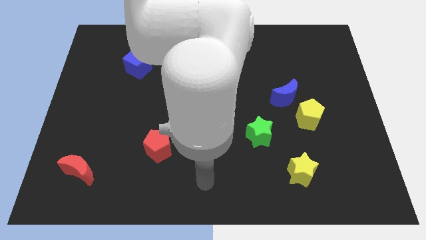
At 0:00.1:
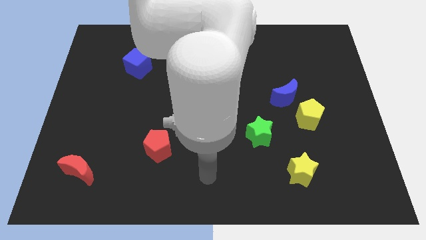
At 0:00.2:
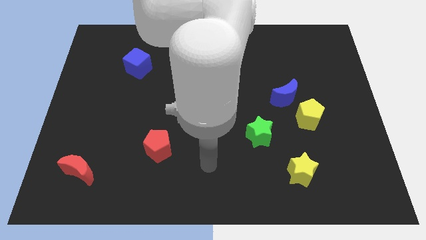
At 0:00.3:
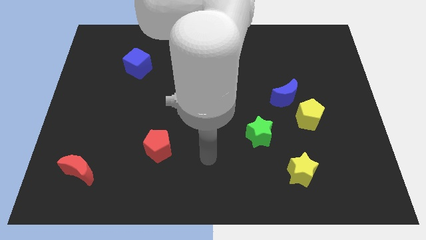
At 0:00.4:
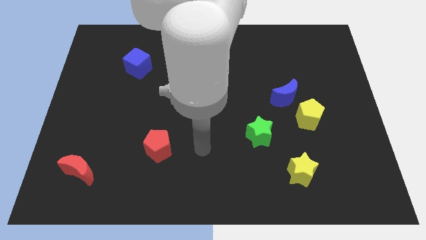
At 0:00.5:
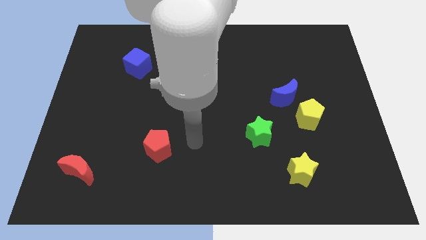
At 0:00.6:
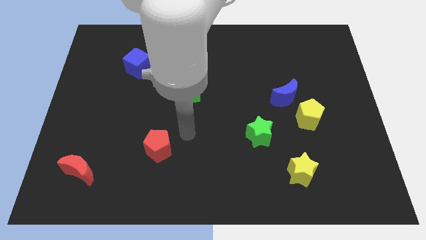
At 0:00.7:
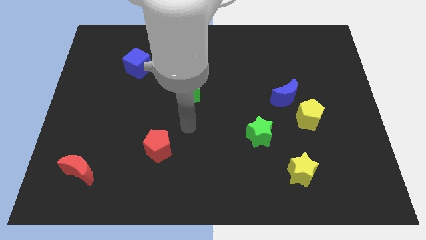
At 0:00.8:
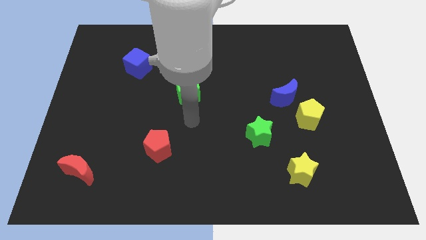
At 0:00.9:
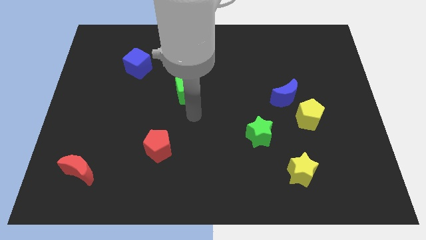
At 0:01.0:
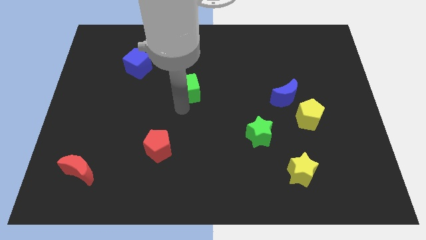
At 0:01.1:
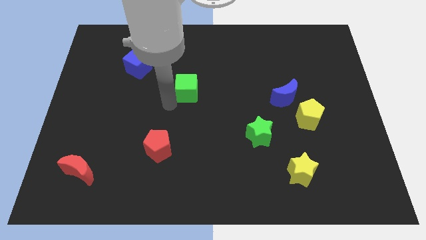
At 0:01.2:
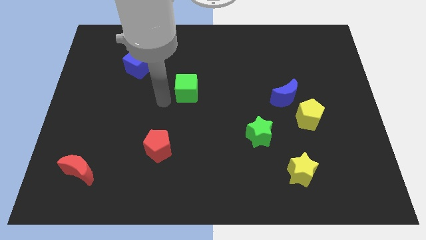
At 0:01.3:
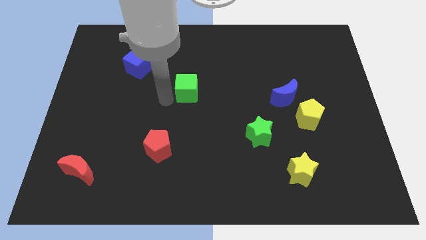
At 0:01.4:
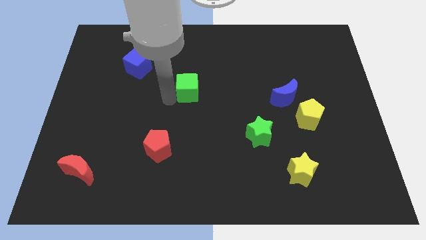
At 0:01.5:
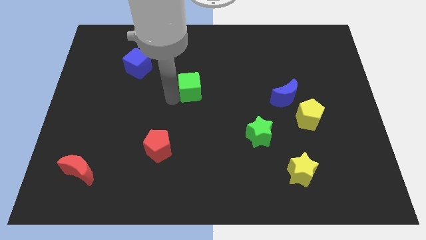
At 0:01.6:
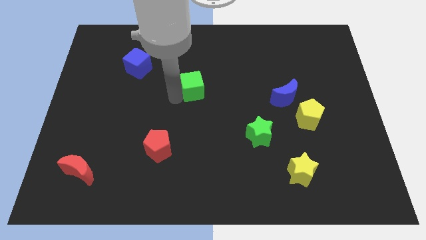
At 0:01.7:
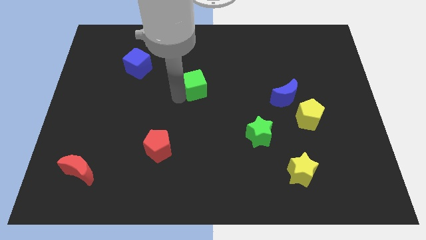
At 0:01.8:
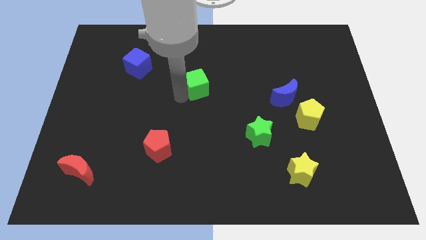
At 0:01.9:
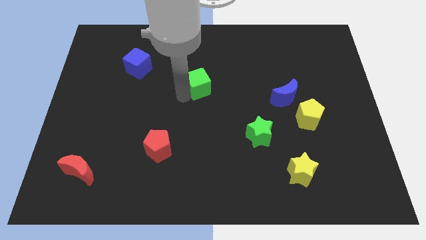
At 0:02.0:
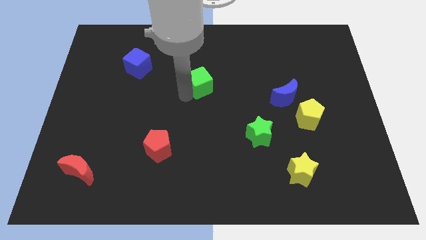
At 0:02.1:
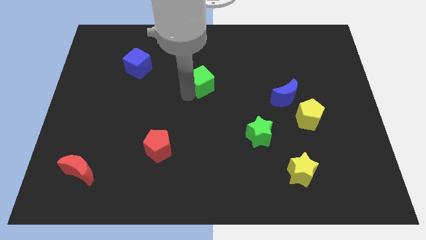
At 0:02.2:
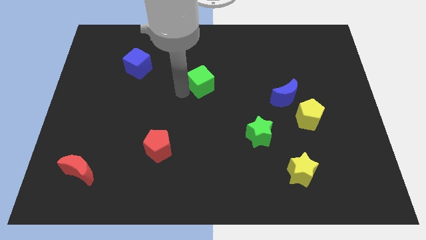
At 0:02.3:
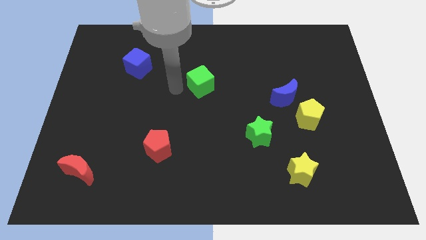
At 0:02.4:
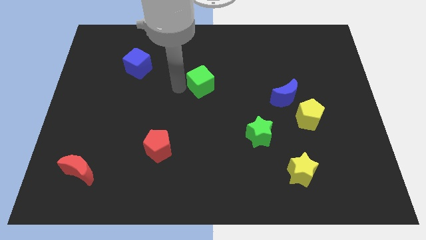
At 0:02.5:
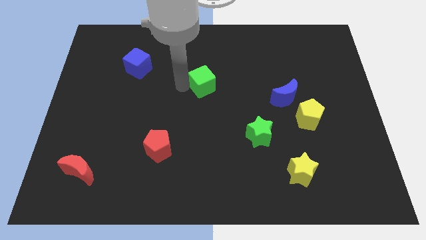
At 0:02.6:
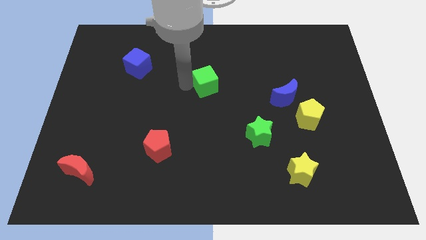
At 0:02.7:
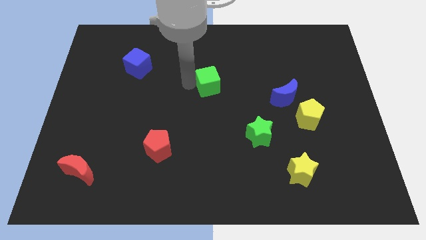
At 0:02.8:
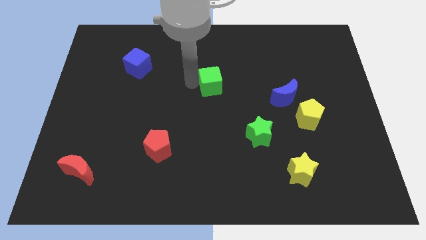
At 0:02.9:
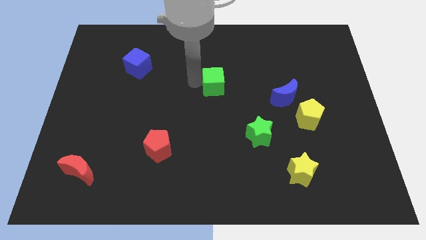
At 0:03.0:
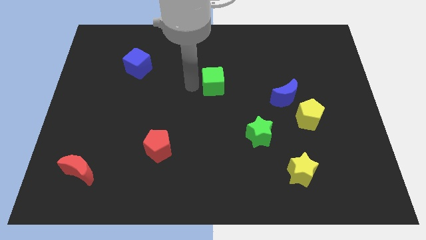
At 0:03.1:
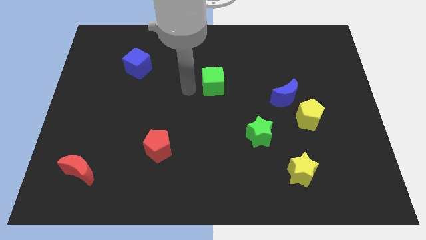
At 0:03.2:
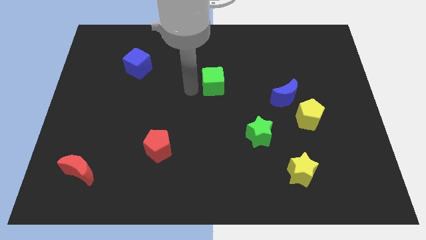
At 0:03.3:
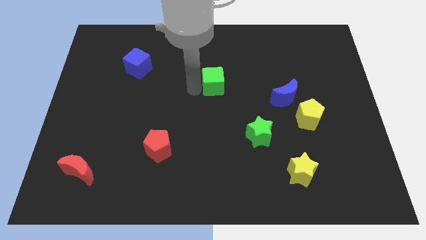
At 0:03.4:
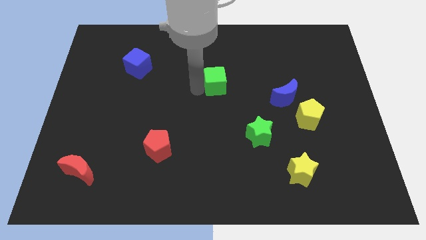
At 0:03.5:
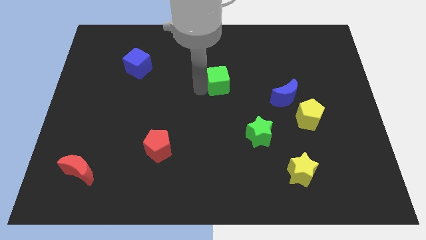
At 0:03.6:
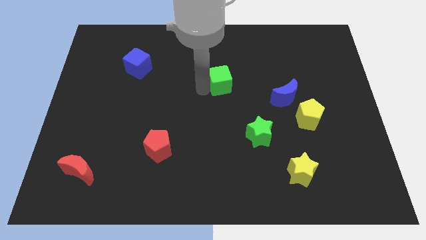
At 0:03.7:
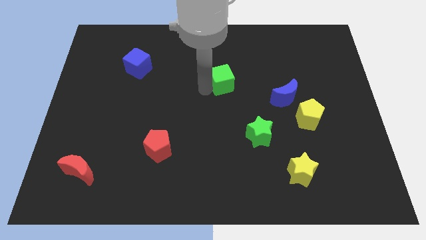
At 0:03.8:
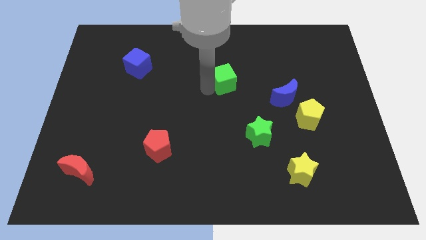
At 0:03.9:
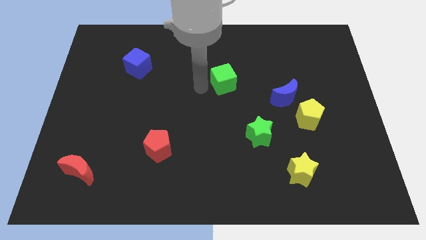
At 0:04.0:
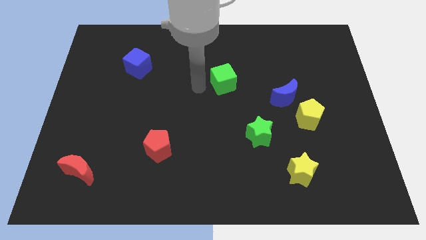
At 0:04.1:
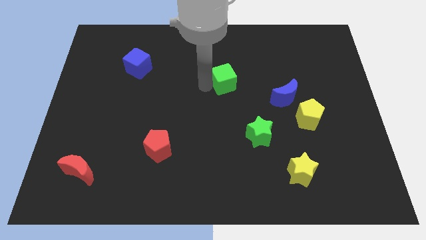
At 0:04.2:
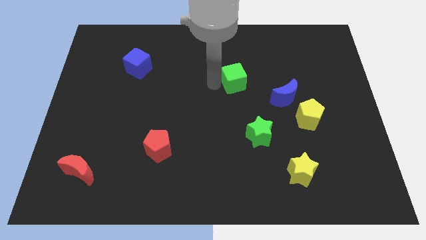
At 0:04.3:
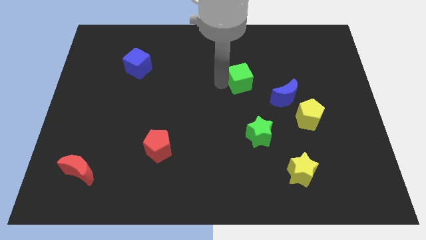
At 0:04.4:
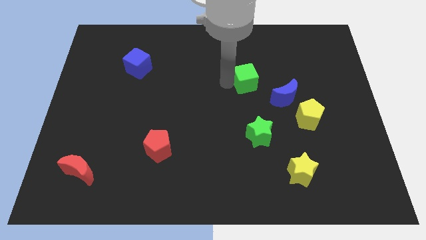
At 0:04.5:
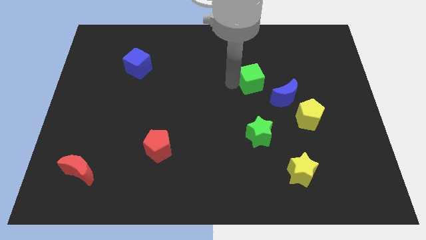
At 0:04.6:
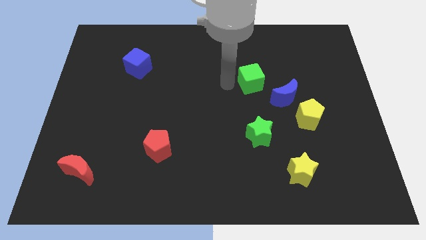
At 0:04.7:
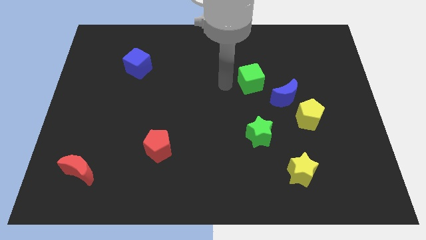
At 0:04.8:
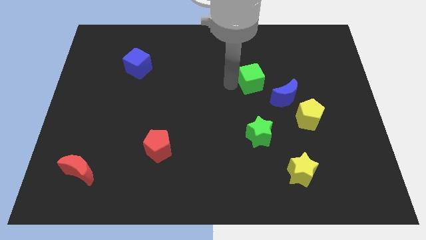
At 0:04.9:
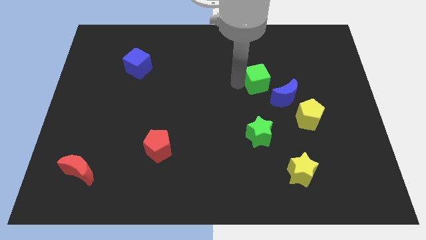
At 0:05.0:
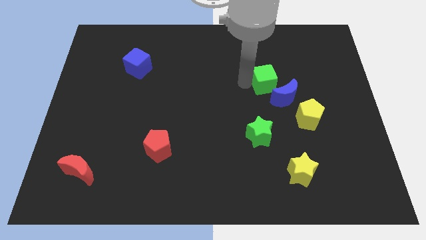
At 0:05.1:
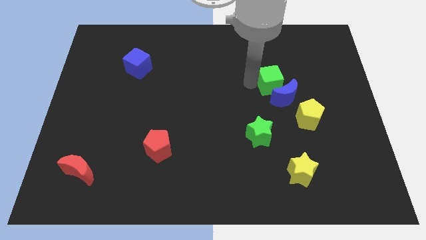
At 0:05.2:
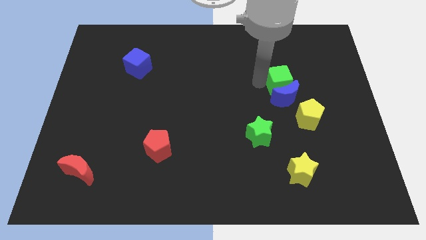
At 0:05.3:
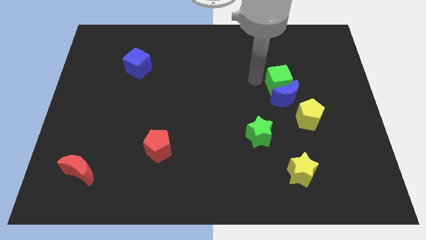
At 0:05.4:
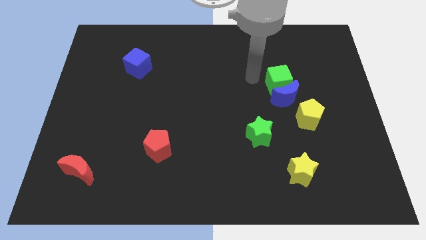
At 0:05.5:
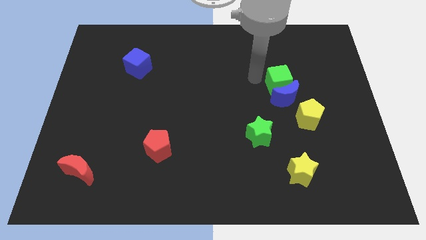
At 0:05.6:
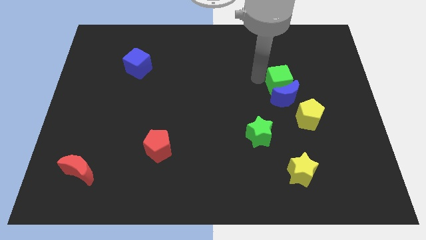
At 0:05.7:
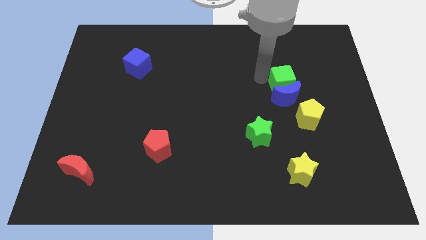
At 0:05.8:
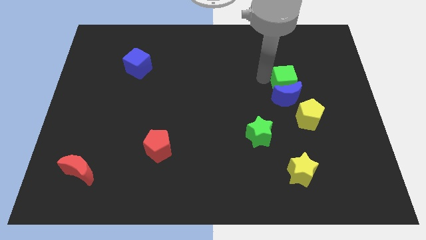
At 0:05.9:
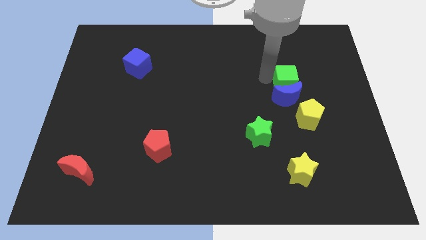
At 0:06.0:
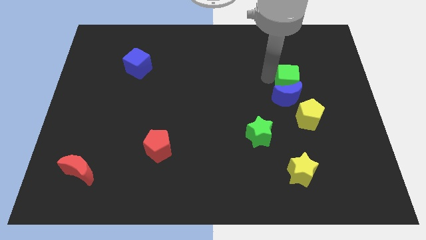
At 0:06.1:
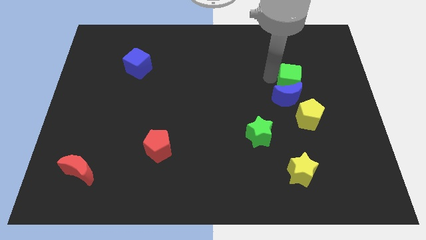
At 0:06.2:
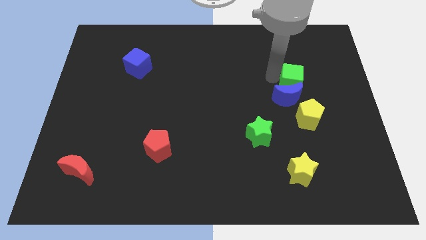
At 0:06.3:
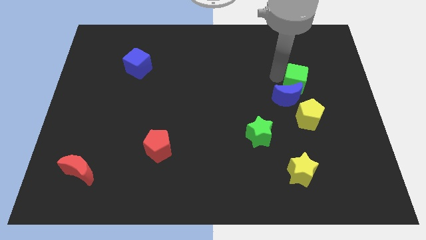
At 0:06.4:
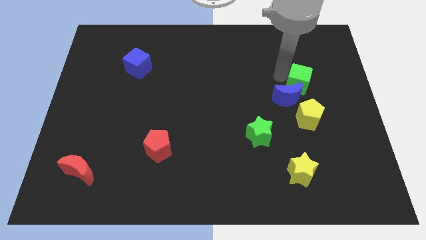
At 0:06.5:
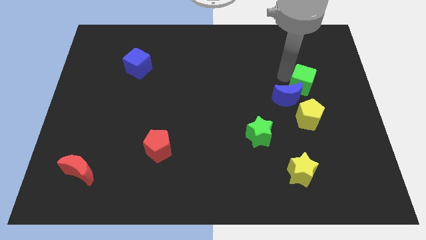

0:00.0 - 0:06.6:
slide the green cube to the right of the blue moon
